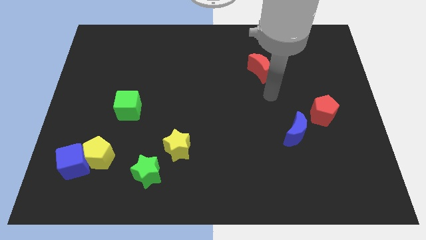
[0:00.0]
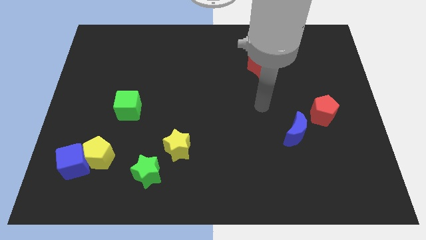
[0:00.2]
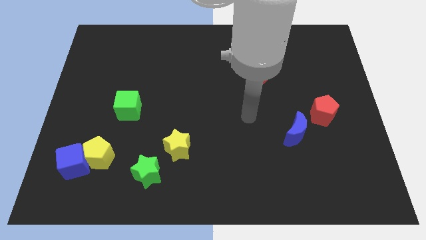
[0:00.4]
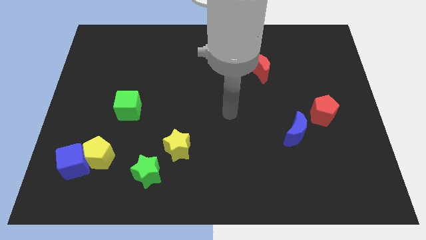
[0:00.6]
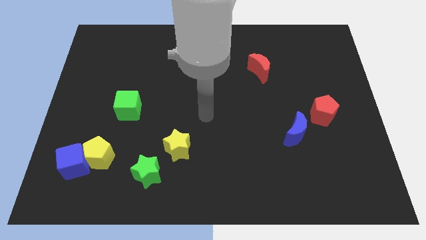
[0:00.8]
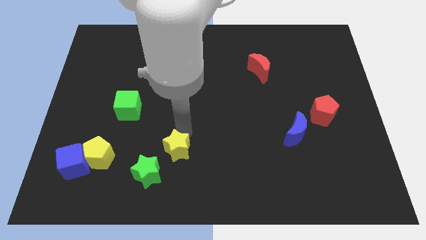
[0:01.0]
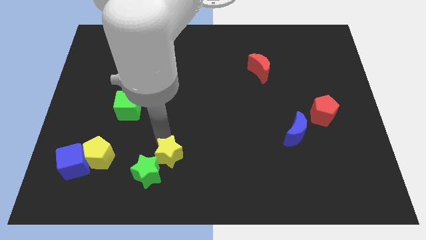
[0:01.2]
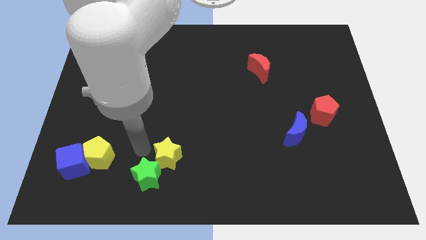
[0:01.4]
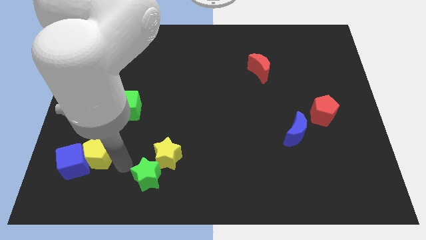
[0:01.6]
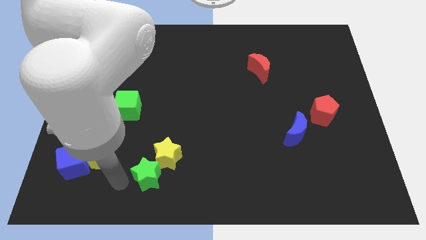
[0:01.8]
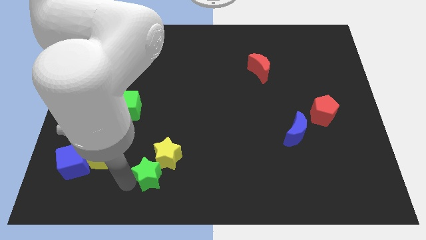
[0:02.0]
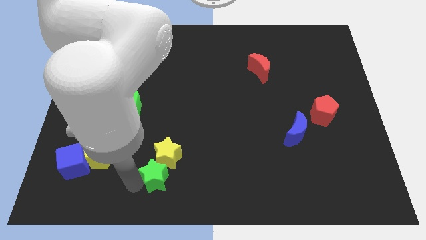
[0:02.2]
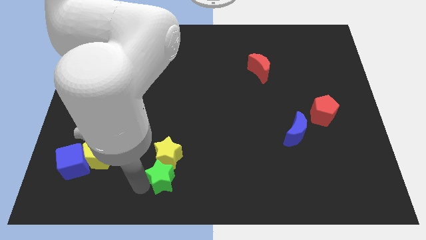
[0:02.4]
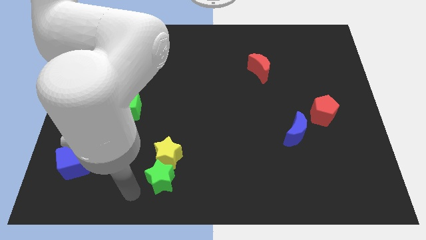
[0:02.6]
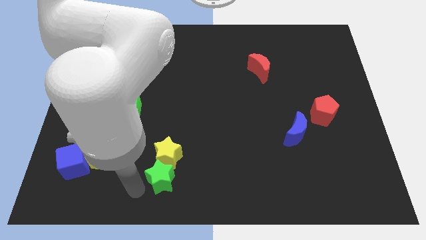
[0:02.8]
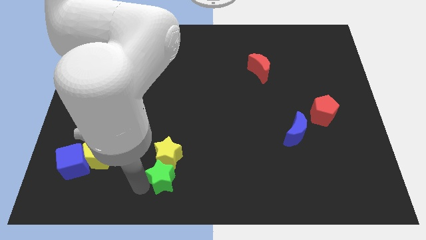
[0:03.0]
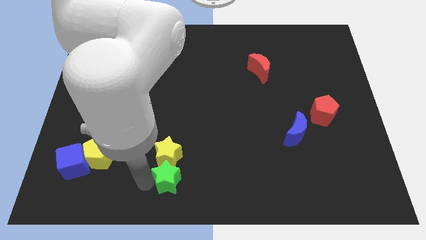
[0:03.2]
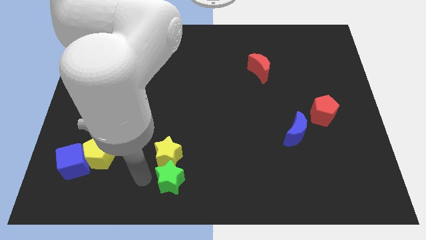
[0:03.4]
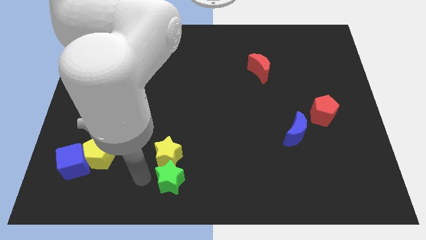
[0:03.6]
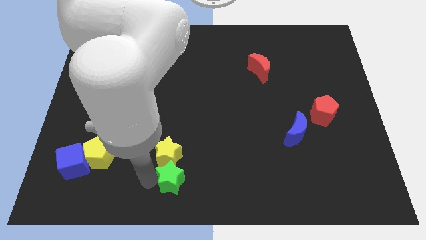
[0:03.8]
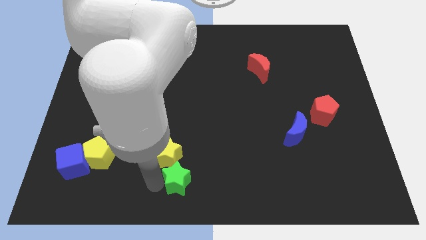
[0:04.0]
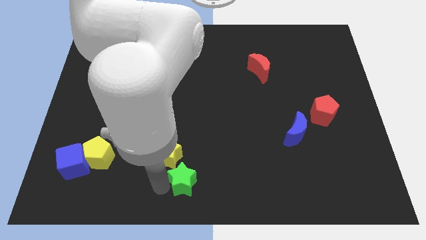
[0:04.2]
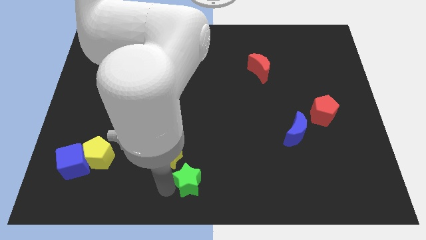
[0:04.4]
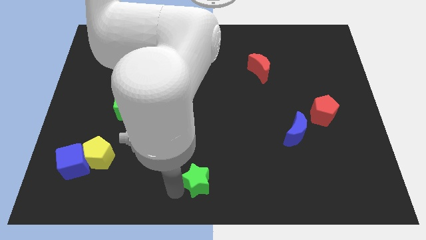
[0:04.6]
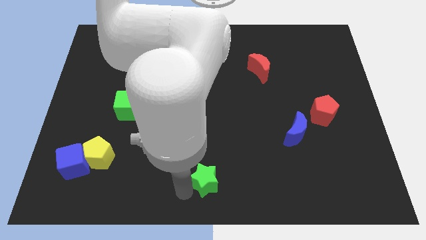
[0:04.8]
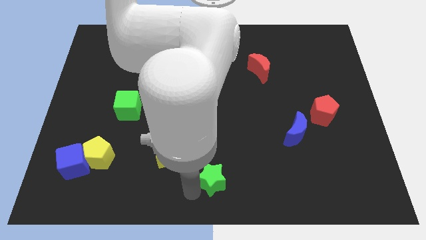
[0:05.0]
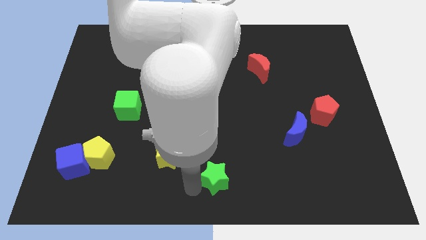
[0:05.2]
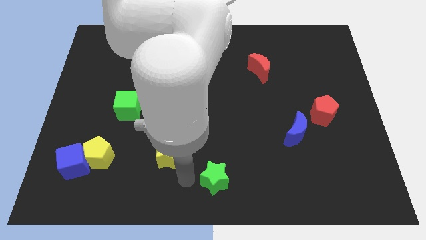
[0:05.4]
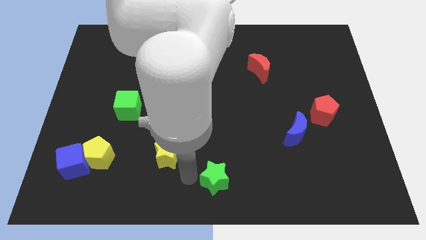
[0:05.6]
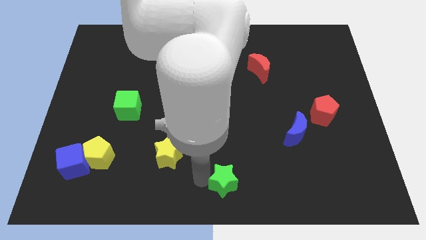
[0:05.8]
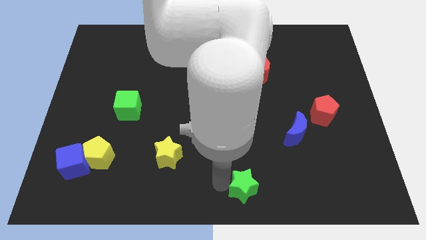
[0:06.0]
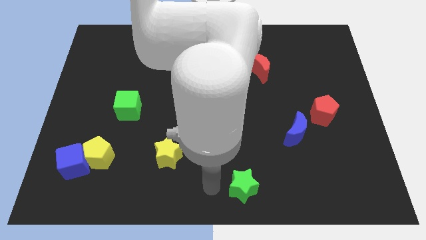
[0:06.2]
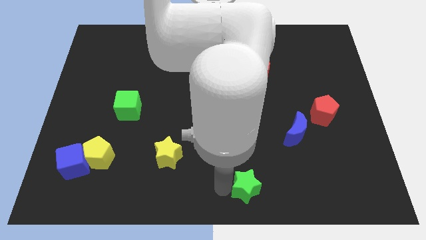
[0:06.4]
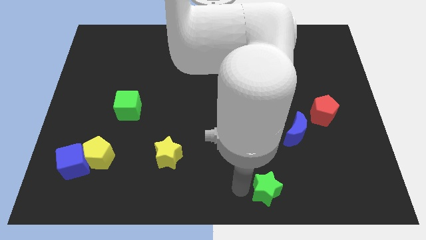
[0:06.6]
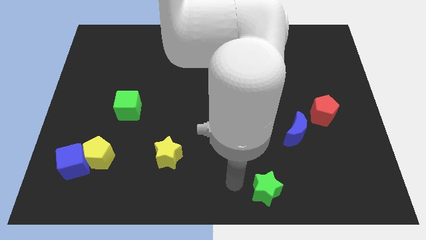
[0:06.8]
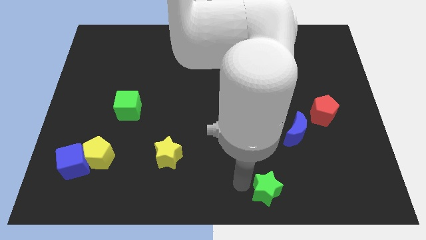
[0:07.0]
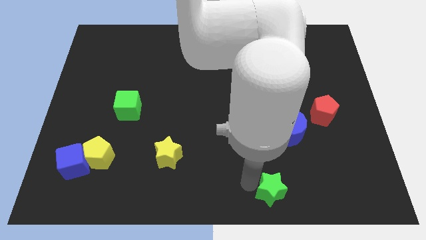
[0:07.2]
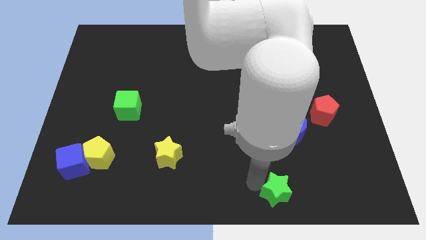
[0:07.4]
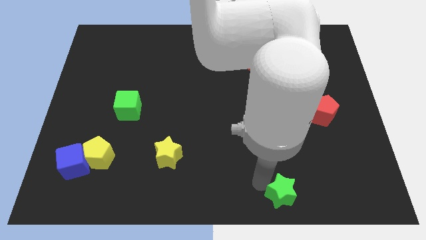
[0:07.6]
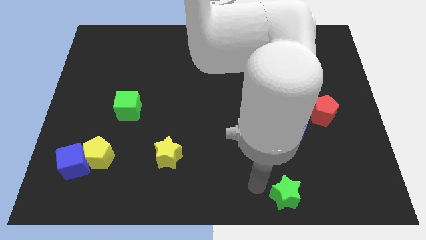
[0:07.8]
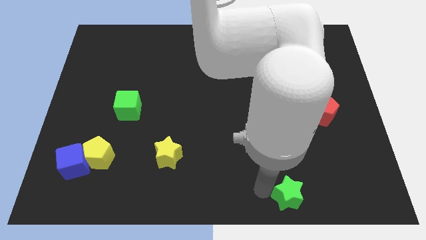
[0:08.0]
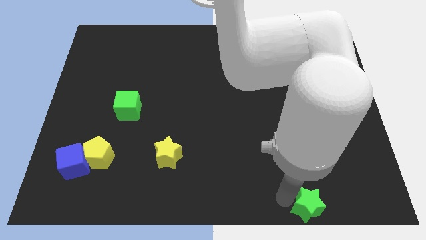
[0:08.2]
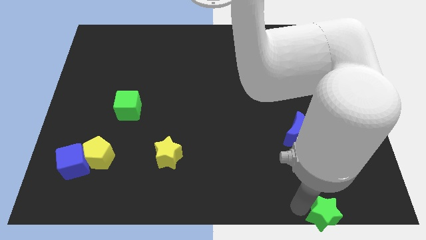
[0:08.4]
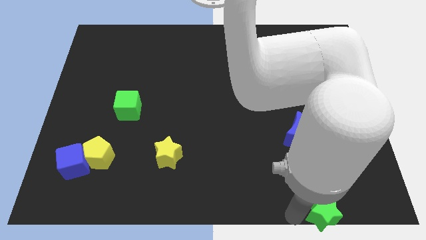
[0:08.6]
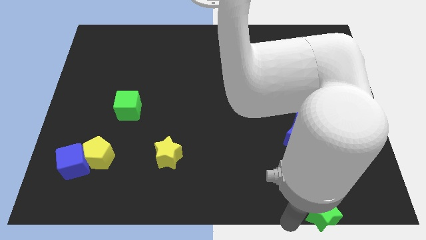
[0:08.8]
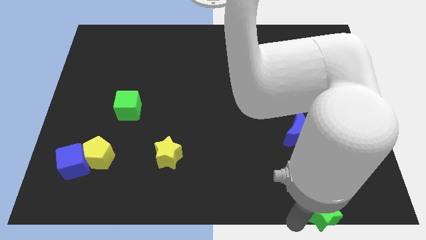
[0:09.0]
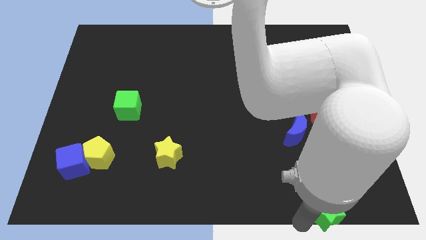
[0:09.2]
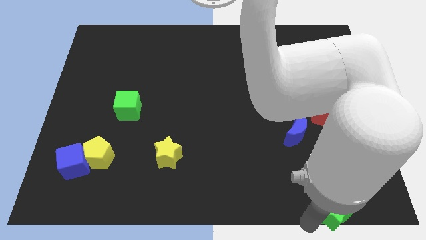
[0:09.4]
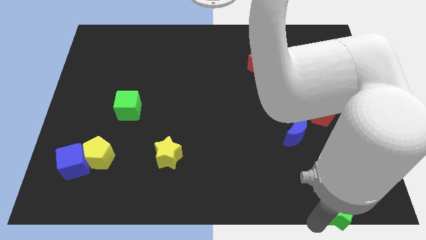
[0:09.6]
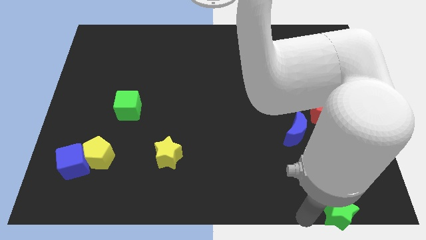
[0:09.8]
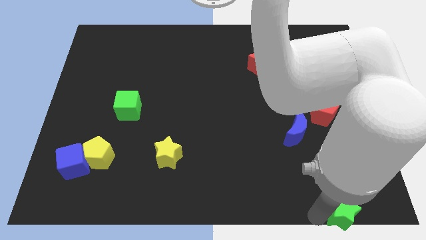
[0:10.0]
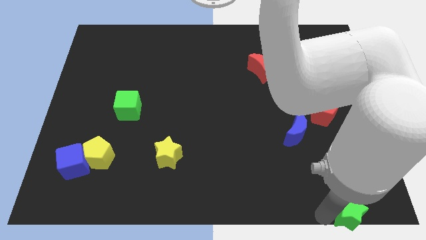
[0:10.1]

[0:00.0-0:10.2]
push the green star to the bottom right

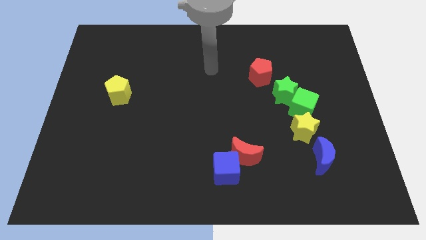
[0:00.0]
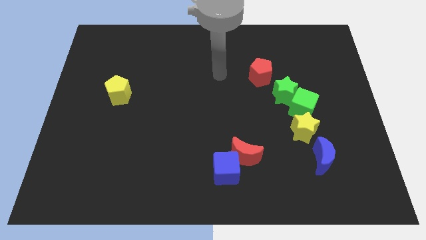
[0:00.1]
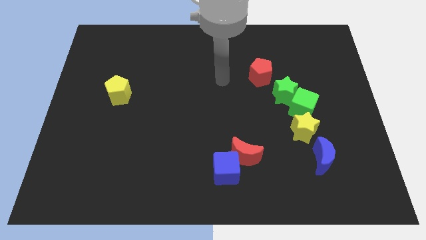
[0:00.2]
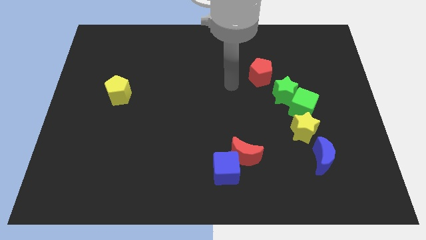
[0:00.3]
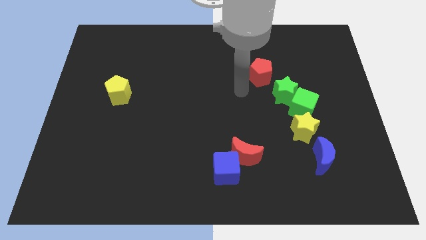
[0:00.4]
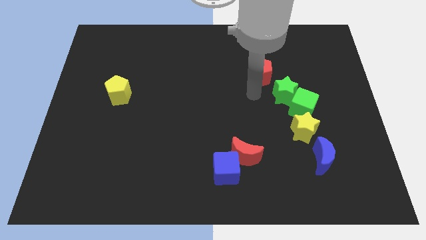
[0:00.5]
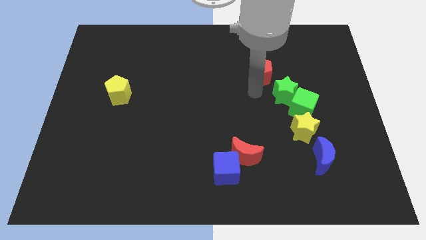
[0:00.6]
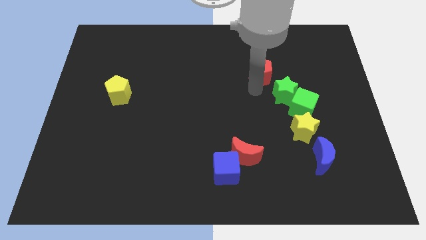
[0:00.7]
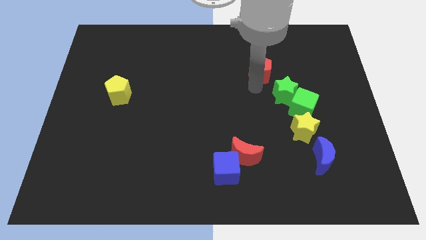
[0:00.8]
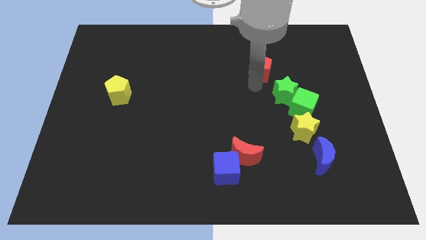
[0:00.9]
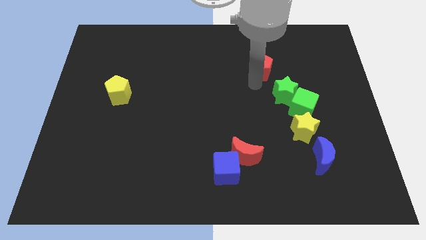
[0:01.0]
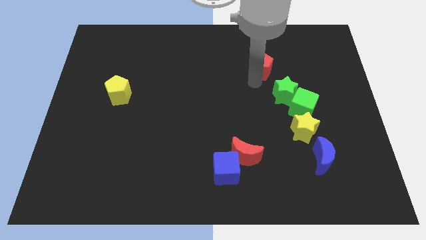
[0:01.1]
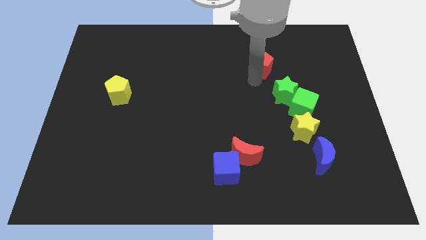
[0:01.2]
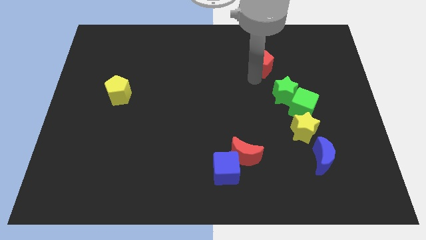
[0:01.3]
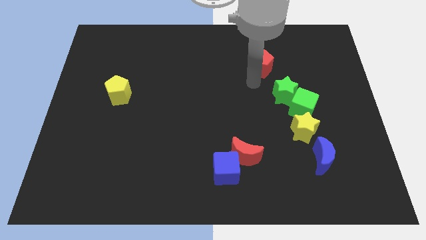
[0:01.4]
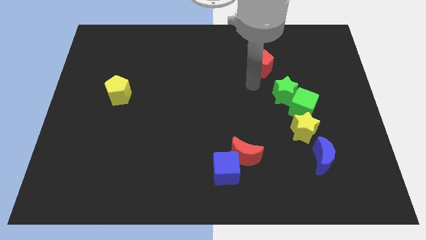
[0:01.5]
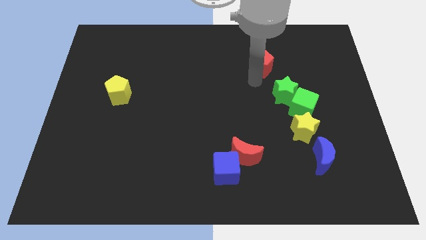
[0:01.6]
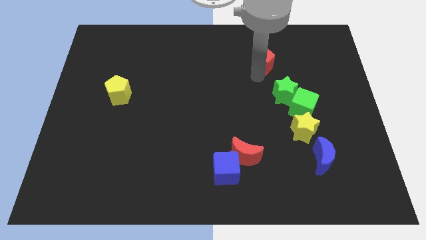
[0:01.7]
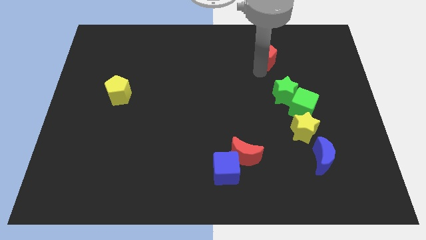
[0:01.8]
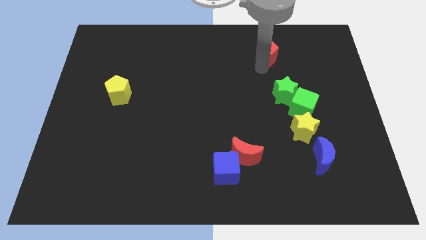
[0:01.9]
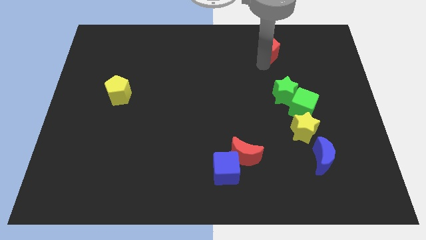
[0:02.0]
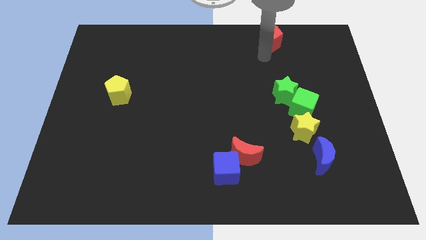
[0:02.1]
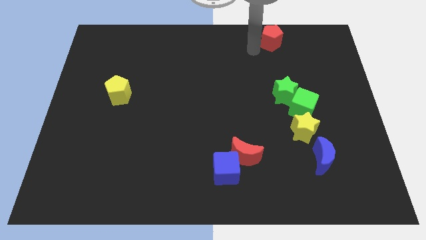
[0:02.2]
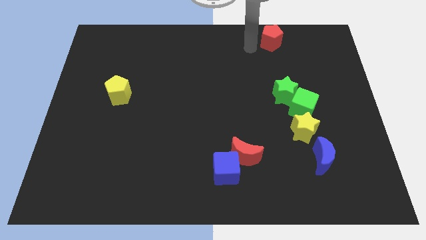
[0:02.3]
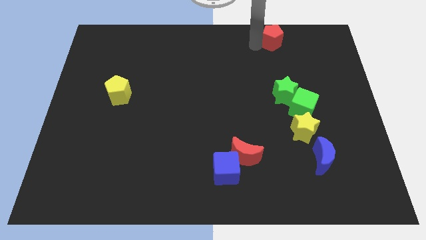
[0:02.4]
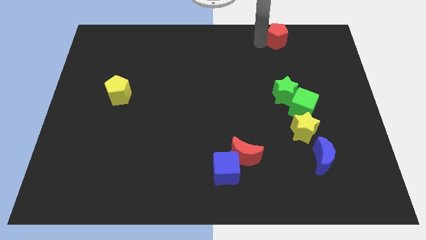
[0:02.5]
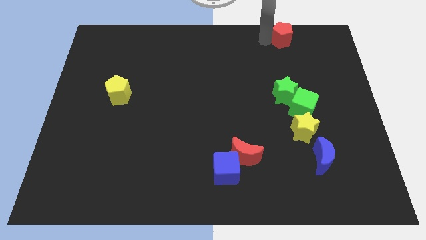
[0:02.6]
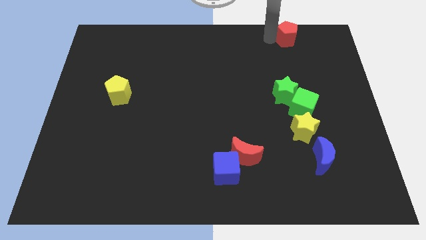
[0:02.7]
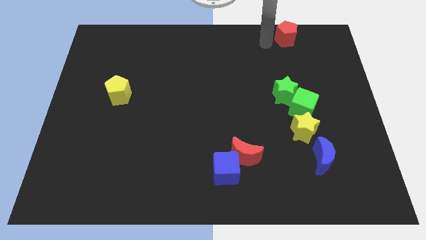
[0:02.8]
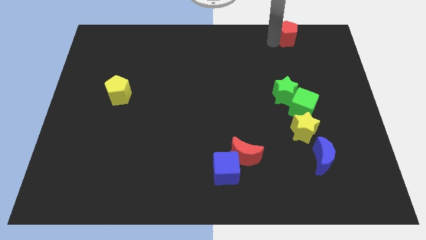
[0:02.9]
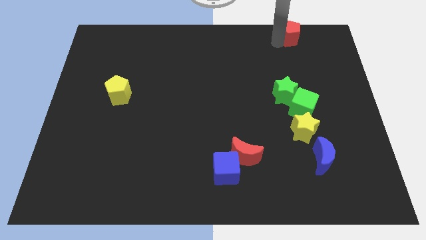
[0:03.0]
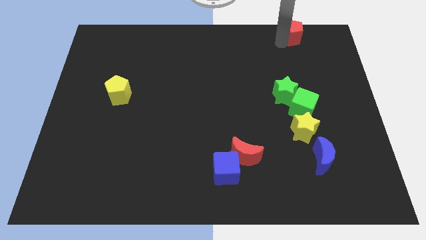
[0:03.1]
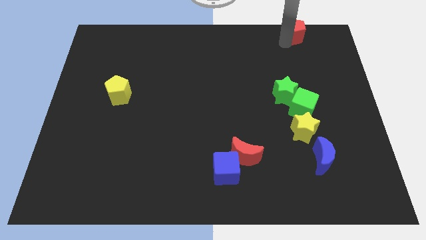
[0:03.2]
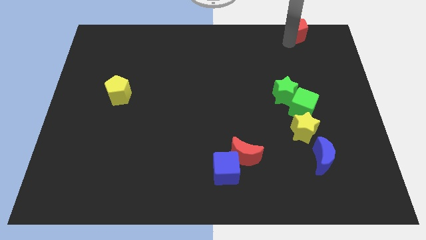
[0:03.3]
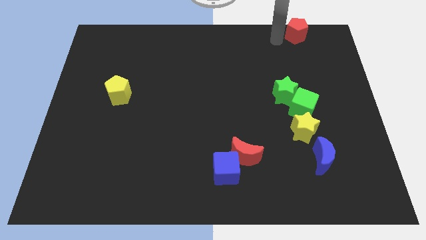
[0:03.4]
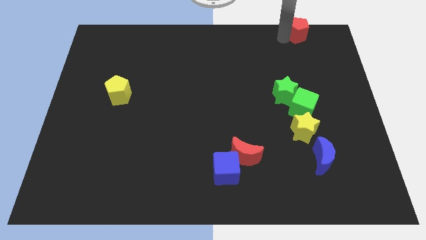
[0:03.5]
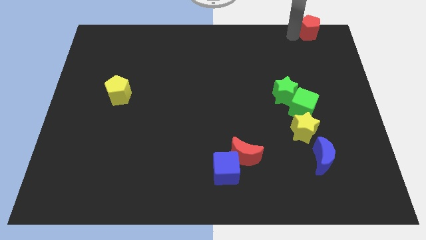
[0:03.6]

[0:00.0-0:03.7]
move the red pentagon to the upper right corner
